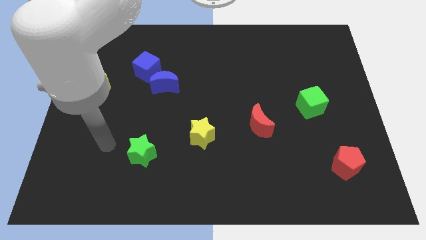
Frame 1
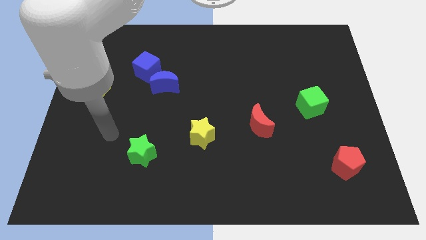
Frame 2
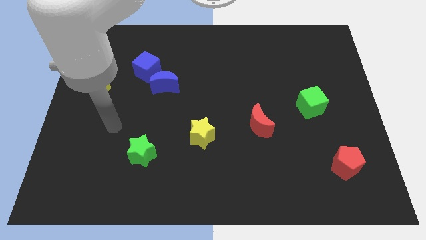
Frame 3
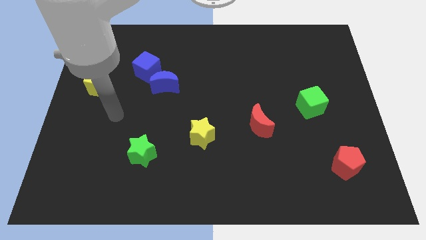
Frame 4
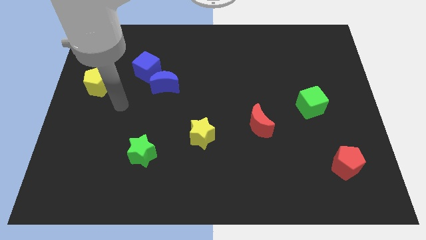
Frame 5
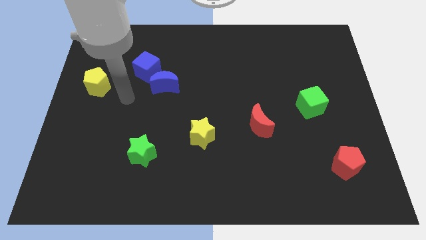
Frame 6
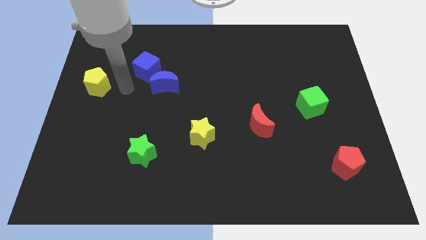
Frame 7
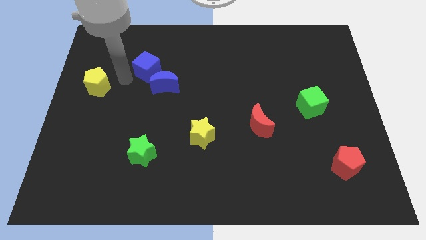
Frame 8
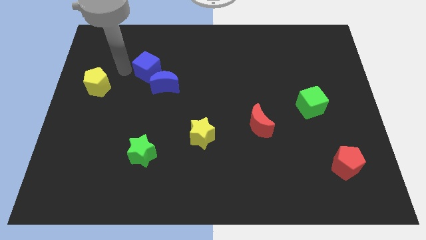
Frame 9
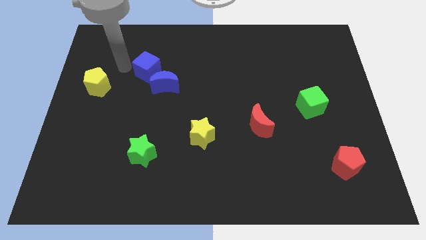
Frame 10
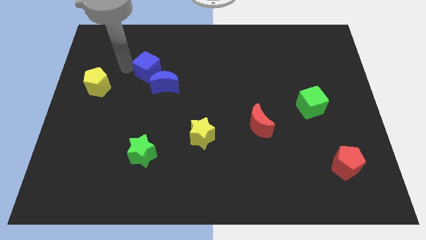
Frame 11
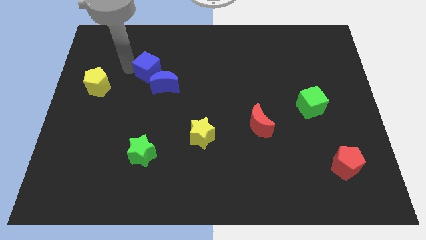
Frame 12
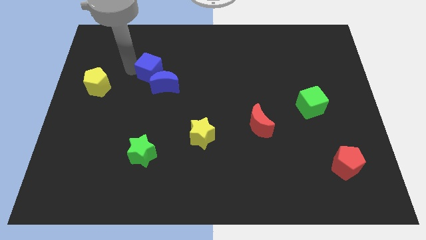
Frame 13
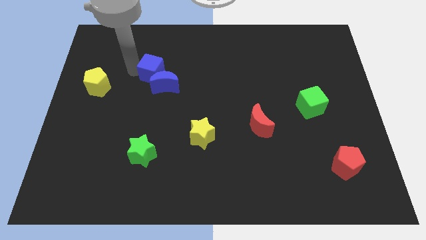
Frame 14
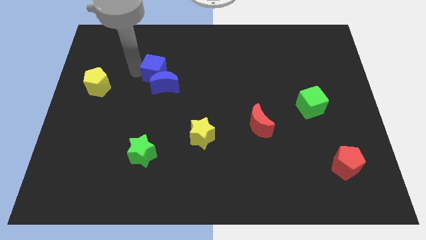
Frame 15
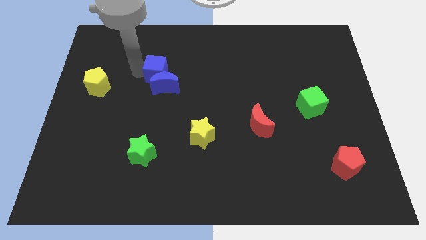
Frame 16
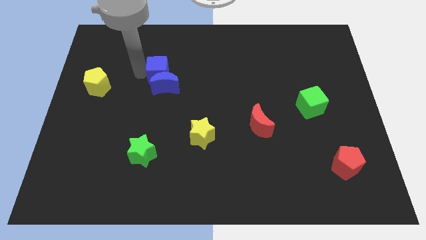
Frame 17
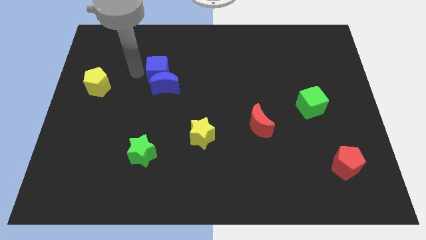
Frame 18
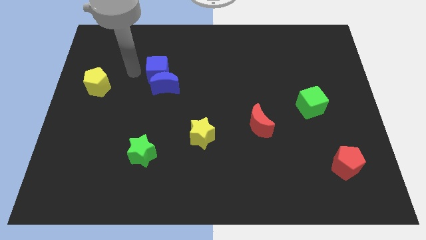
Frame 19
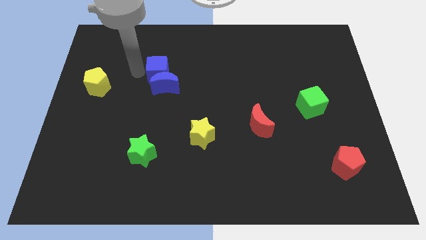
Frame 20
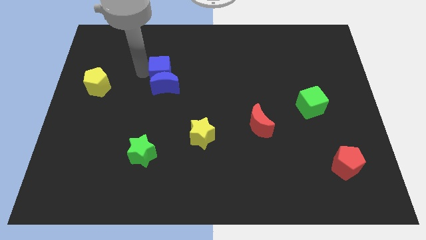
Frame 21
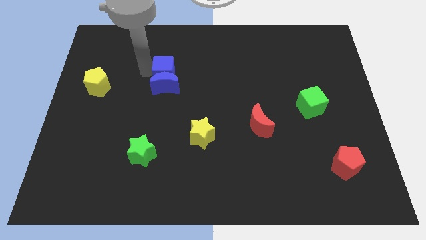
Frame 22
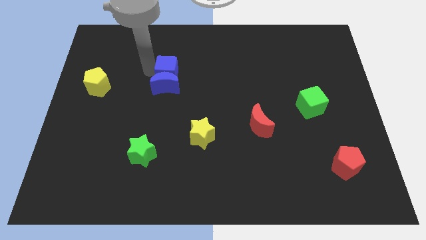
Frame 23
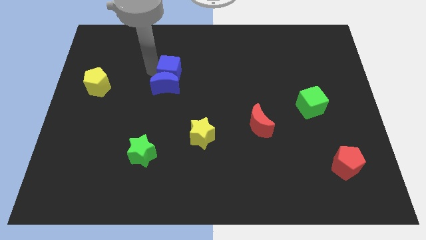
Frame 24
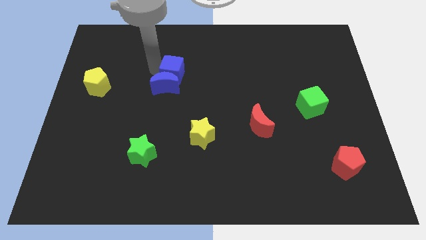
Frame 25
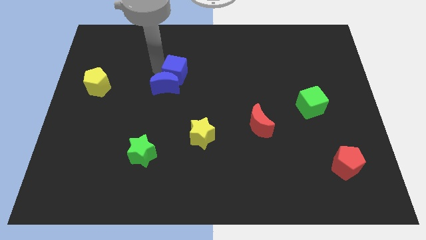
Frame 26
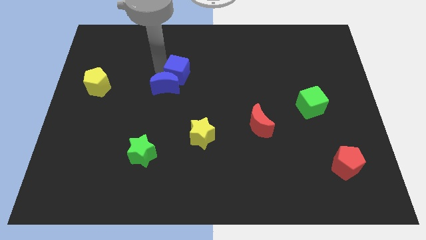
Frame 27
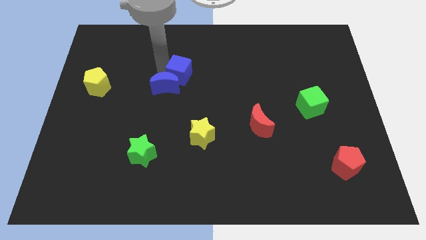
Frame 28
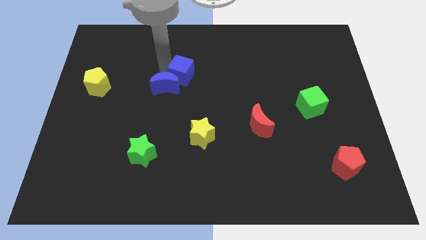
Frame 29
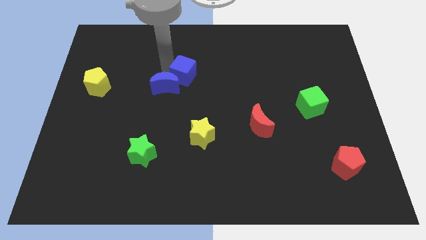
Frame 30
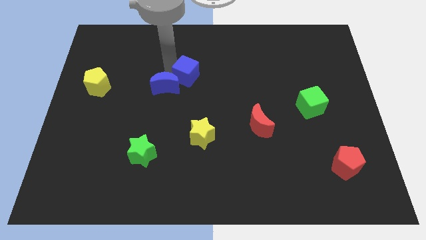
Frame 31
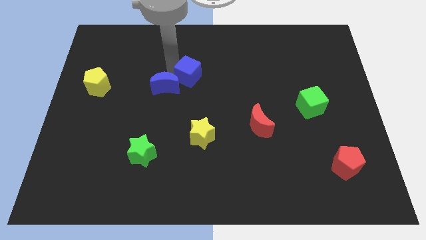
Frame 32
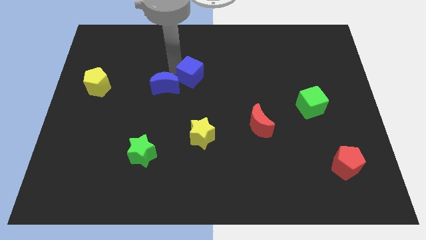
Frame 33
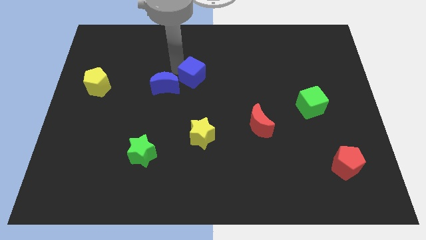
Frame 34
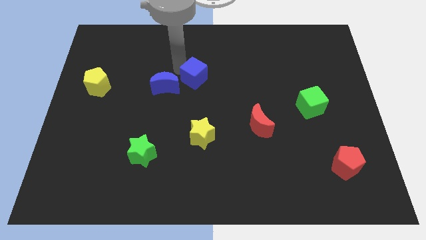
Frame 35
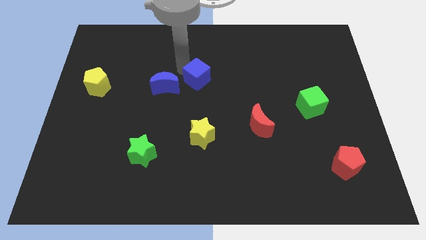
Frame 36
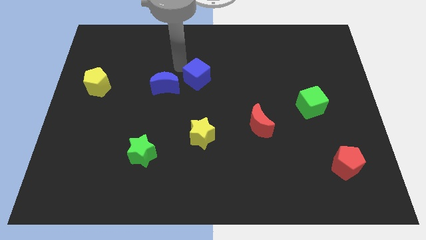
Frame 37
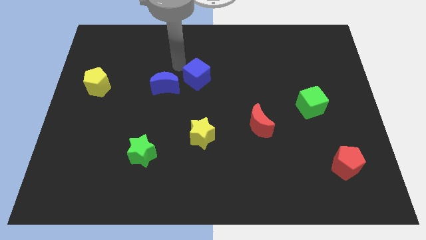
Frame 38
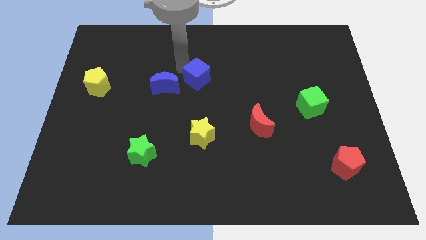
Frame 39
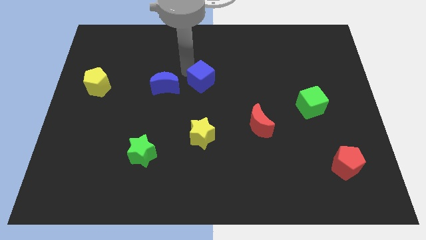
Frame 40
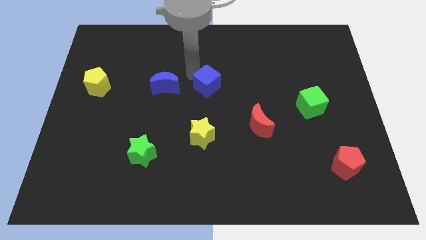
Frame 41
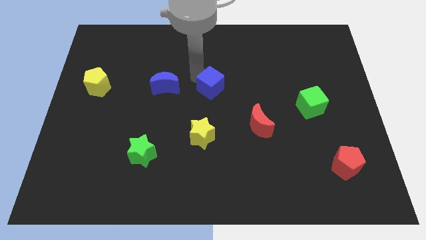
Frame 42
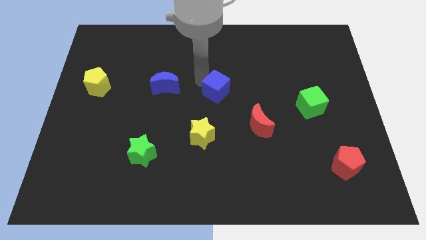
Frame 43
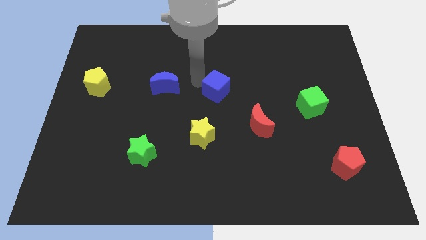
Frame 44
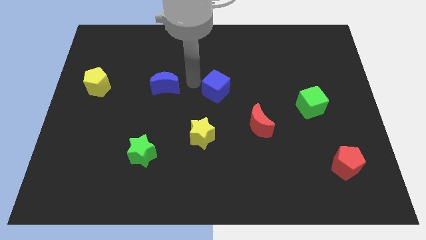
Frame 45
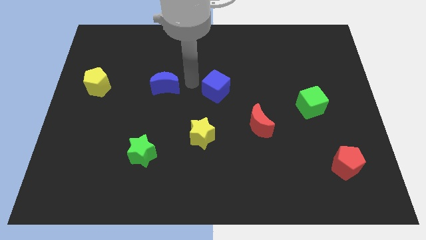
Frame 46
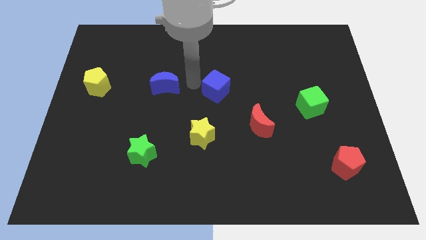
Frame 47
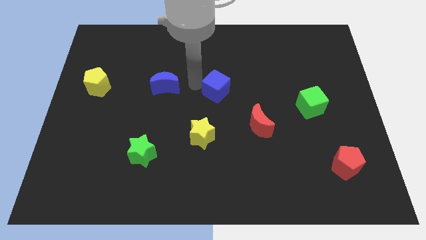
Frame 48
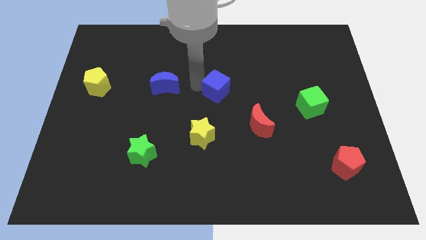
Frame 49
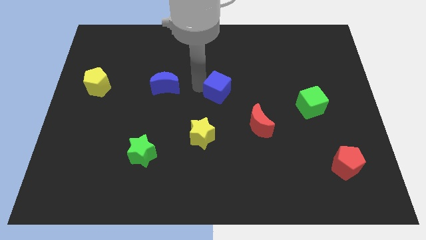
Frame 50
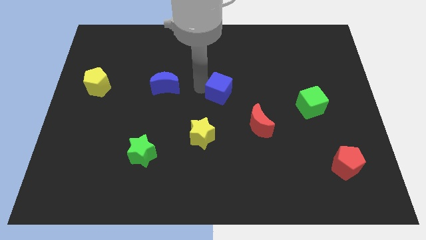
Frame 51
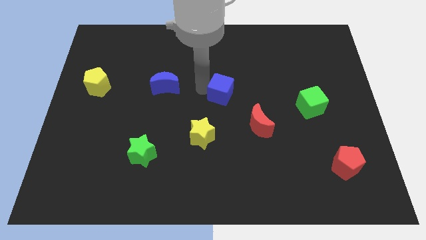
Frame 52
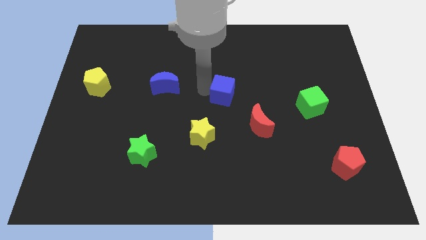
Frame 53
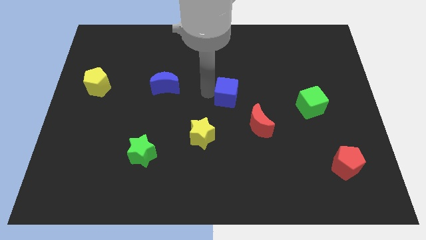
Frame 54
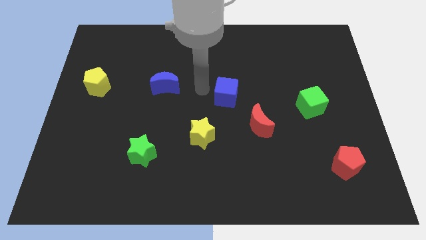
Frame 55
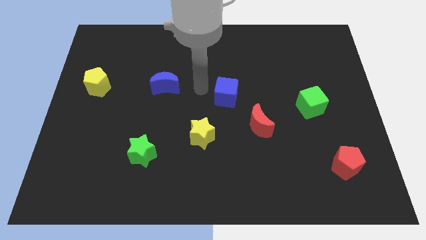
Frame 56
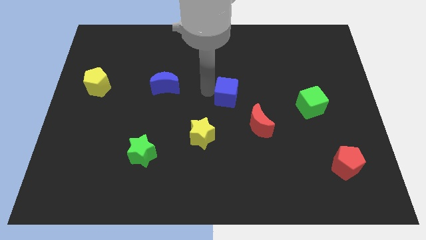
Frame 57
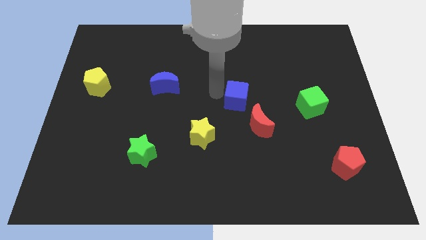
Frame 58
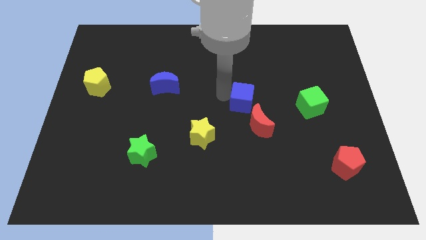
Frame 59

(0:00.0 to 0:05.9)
put the blue cube to the left side of the green cube

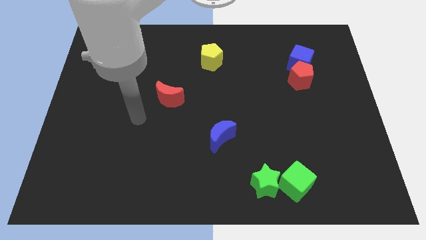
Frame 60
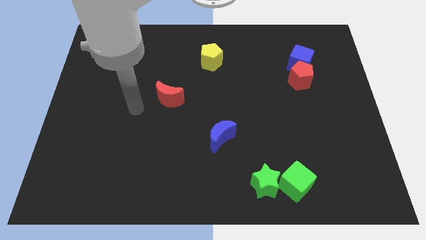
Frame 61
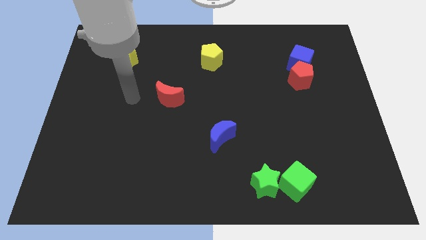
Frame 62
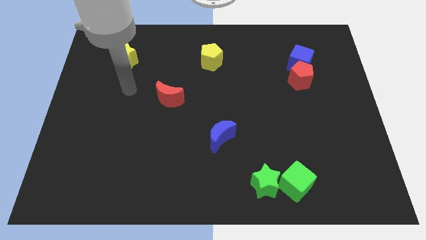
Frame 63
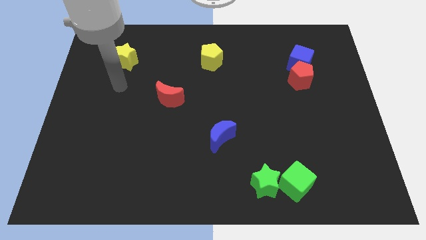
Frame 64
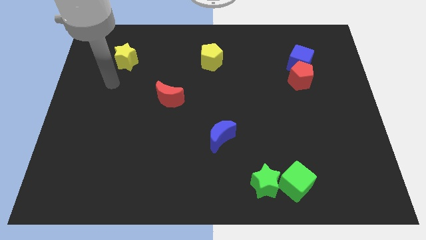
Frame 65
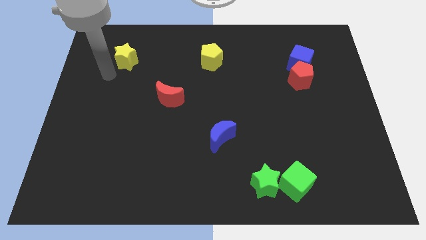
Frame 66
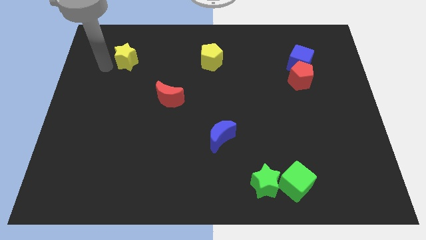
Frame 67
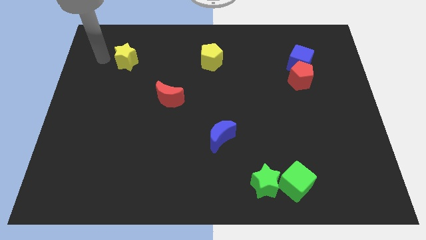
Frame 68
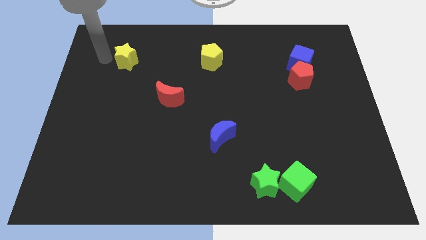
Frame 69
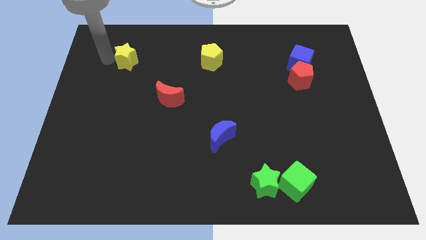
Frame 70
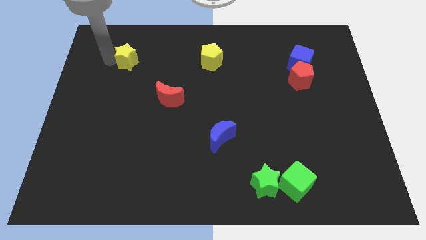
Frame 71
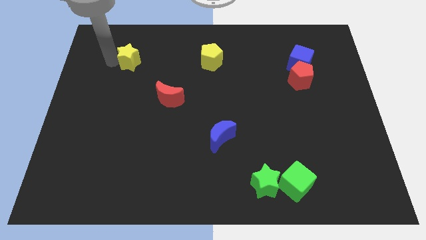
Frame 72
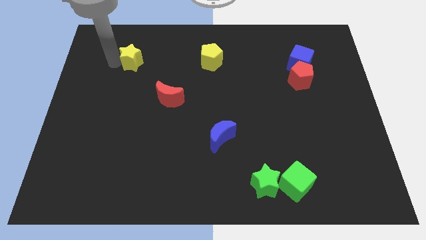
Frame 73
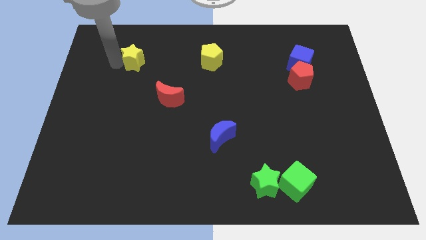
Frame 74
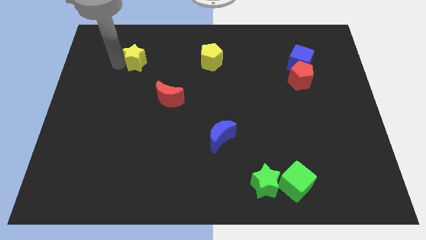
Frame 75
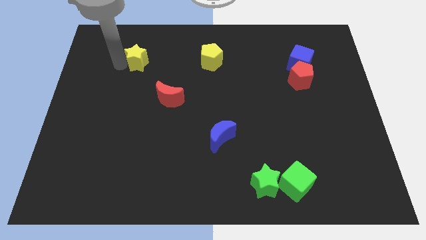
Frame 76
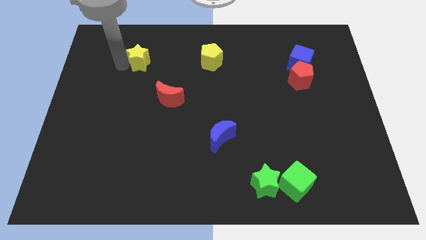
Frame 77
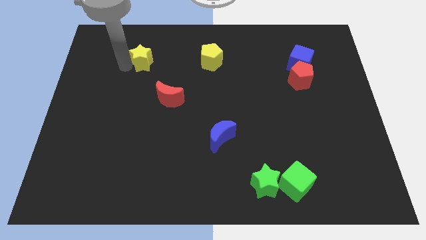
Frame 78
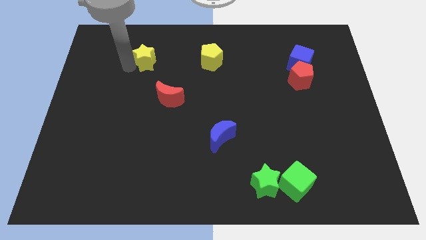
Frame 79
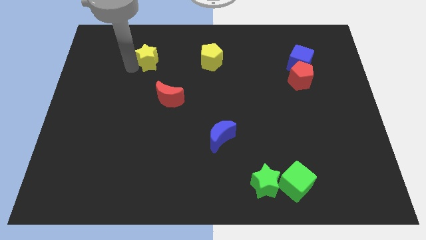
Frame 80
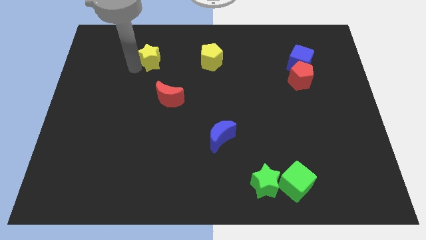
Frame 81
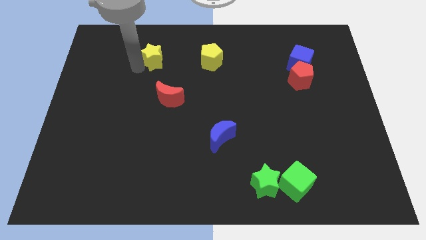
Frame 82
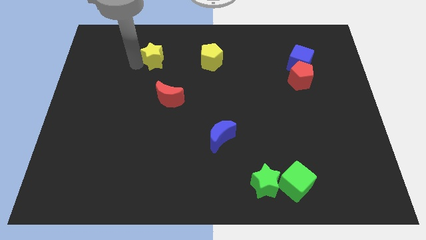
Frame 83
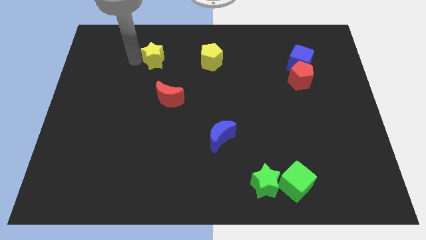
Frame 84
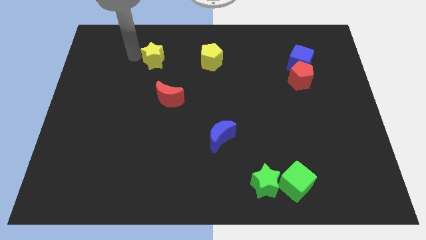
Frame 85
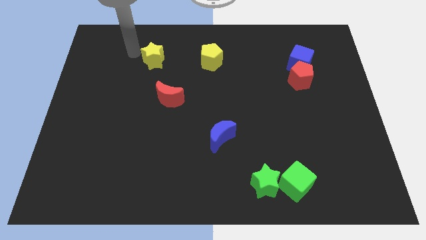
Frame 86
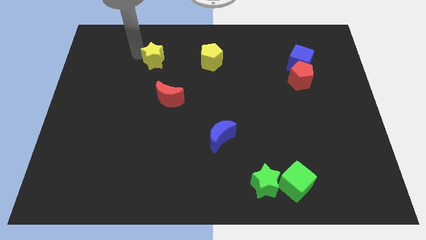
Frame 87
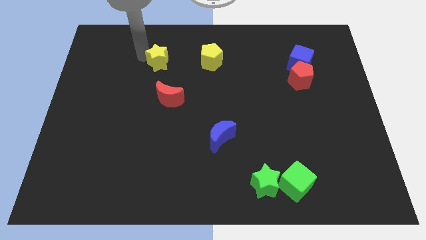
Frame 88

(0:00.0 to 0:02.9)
move the yellow star to the top of the red moon
